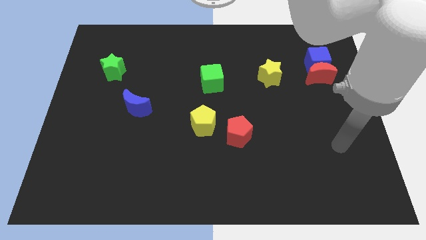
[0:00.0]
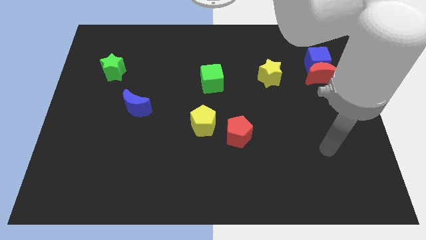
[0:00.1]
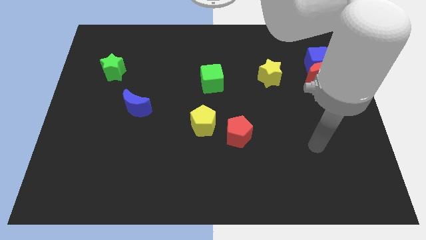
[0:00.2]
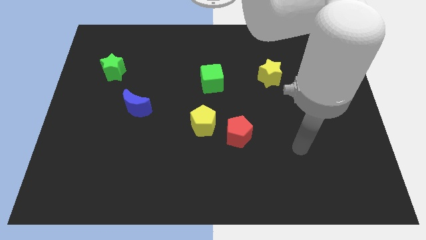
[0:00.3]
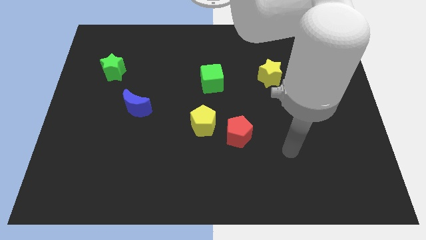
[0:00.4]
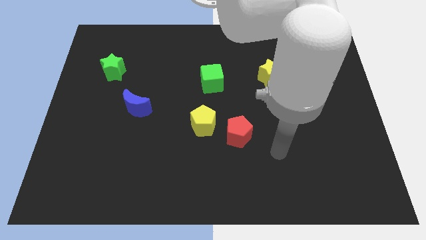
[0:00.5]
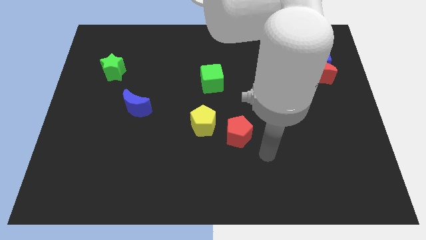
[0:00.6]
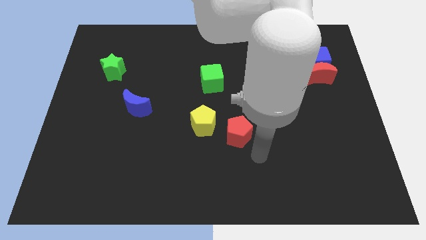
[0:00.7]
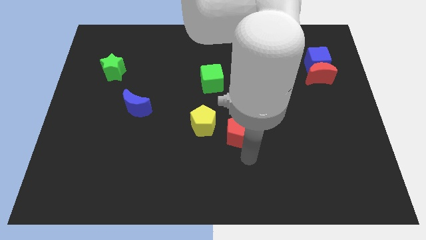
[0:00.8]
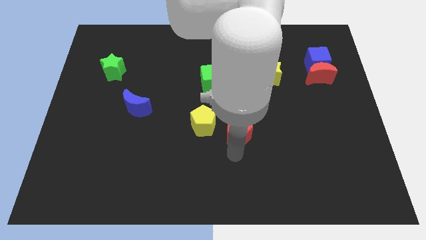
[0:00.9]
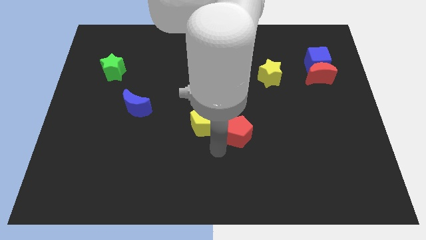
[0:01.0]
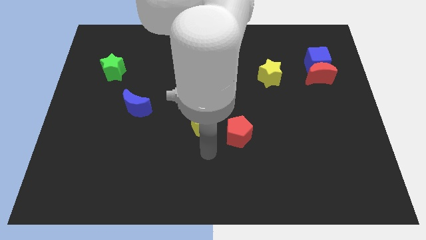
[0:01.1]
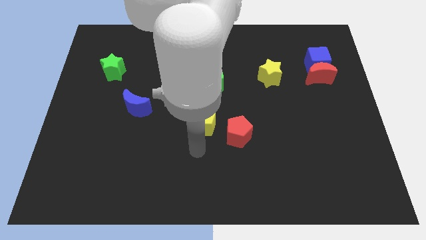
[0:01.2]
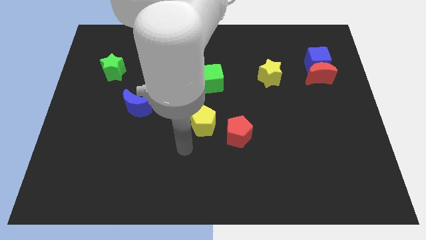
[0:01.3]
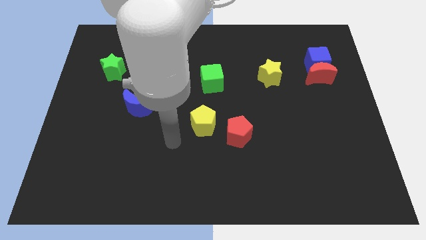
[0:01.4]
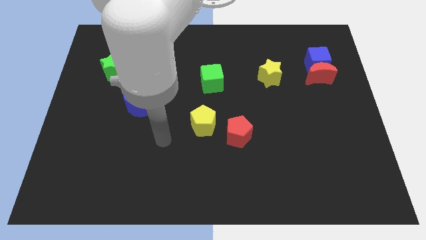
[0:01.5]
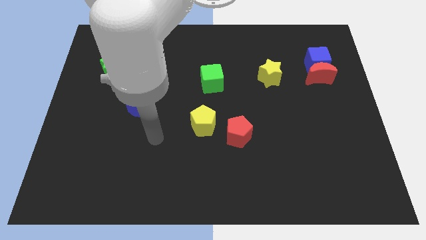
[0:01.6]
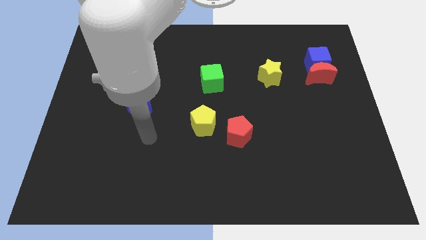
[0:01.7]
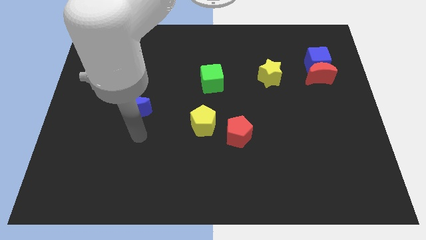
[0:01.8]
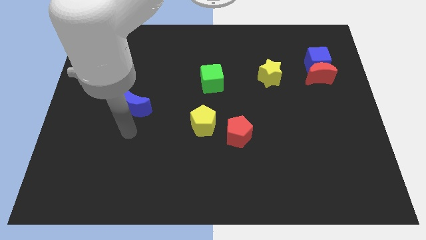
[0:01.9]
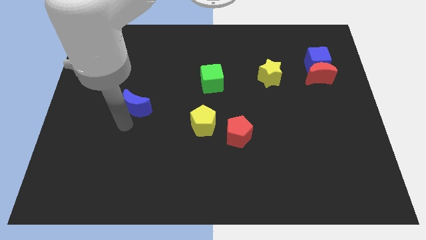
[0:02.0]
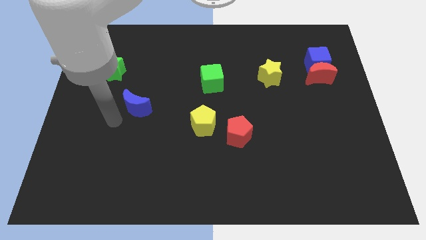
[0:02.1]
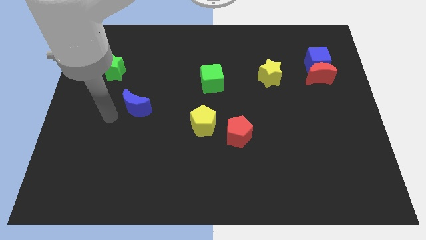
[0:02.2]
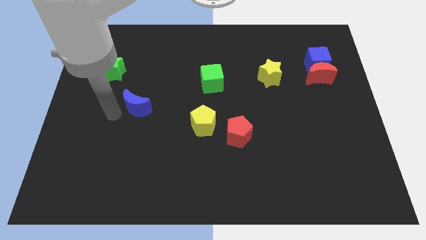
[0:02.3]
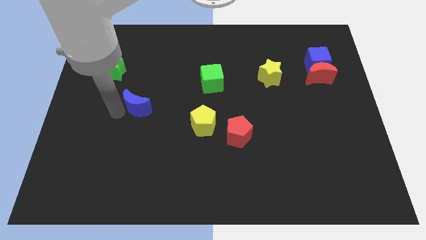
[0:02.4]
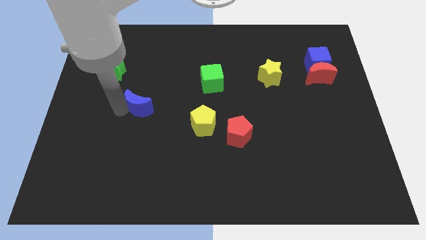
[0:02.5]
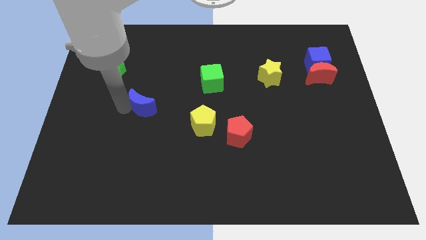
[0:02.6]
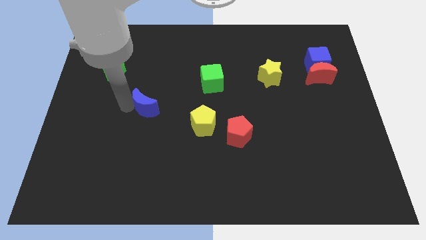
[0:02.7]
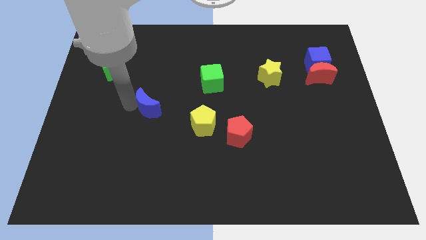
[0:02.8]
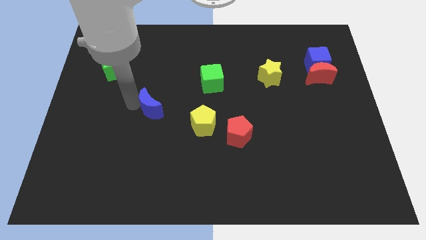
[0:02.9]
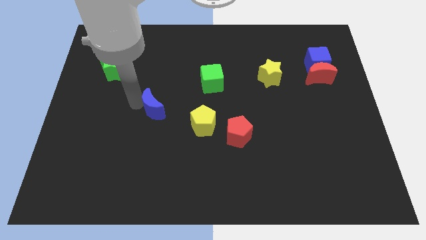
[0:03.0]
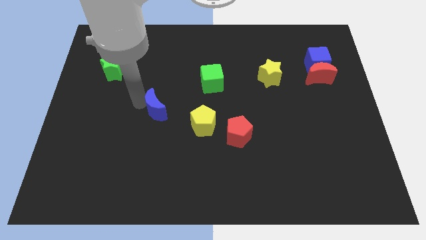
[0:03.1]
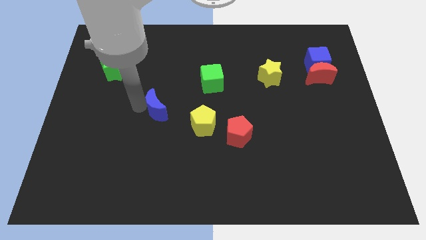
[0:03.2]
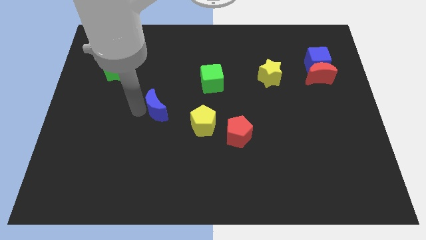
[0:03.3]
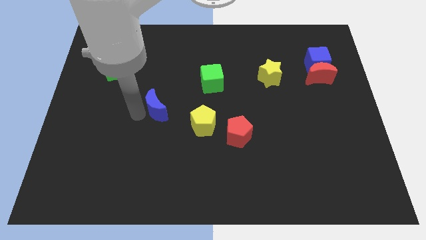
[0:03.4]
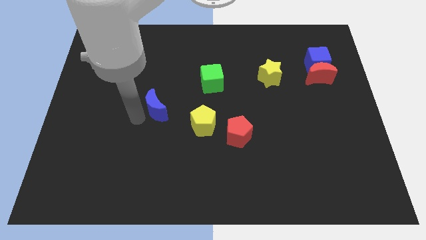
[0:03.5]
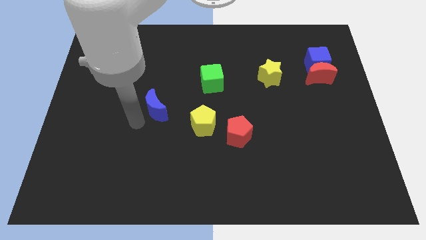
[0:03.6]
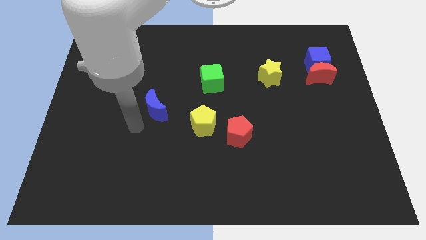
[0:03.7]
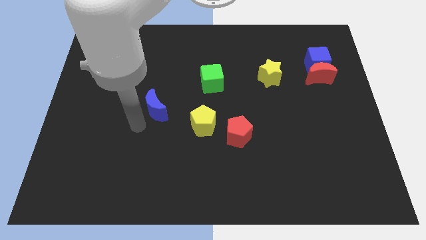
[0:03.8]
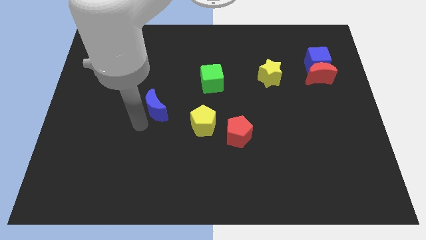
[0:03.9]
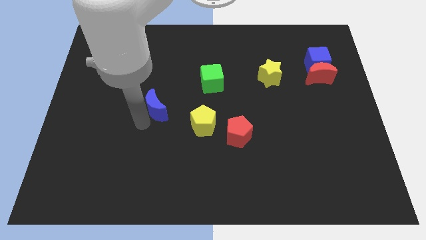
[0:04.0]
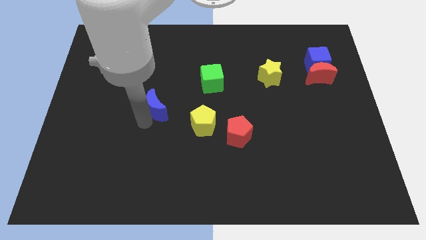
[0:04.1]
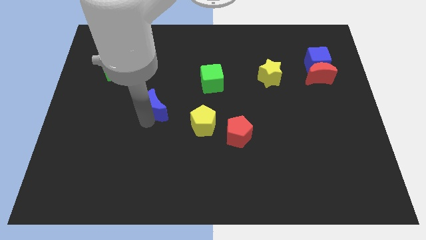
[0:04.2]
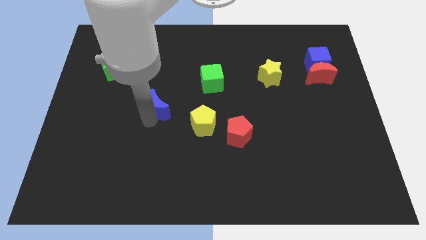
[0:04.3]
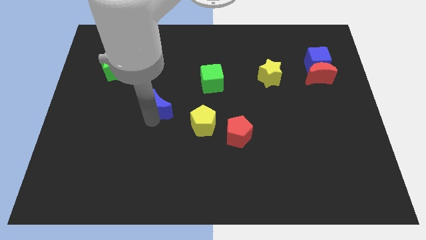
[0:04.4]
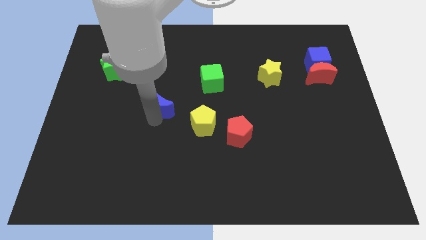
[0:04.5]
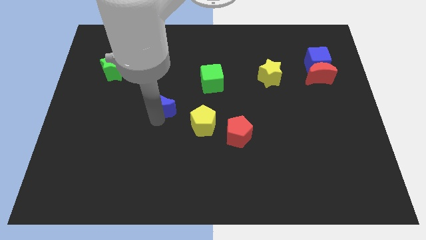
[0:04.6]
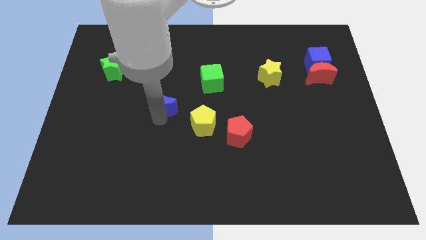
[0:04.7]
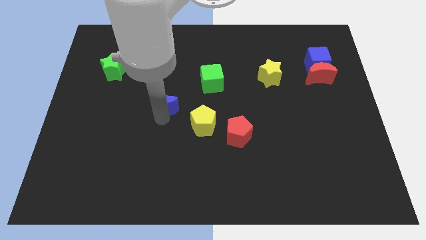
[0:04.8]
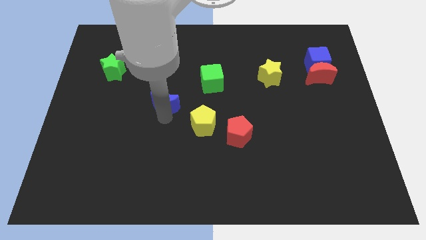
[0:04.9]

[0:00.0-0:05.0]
slightly push the blue moon right

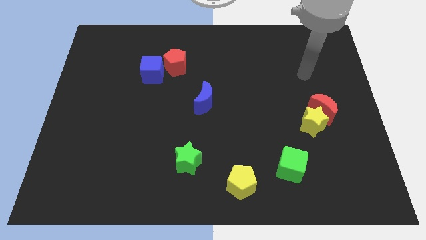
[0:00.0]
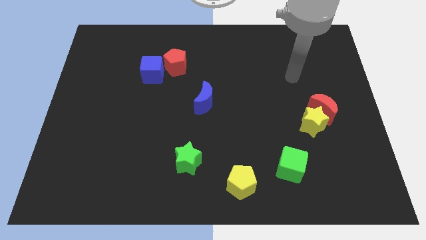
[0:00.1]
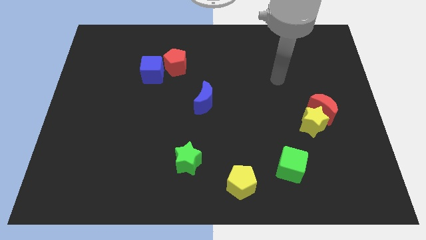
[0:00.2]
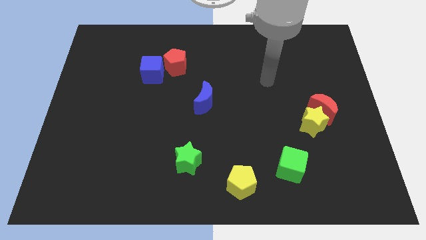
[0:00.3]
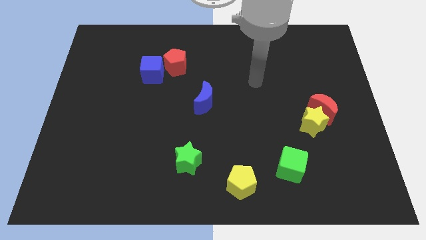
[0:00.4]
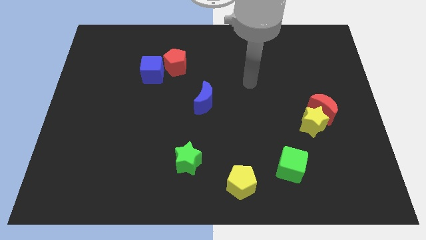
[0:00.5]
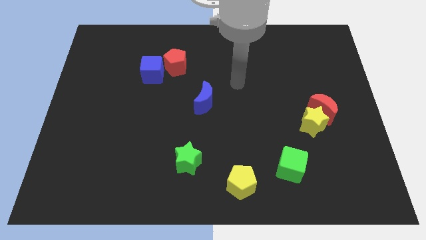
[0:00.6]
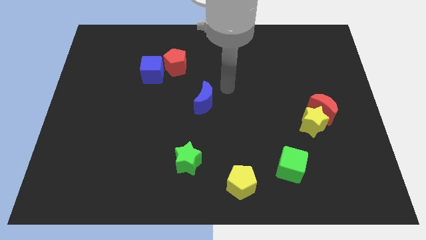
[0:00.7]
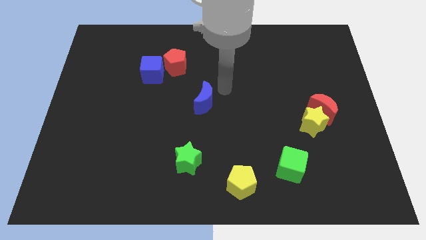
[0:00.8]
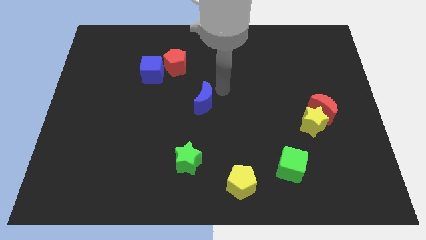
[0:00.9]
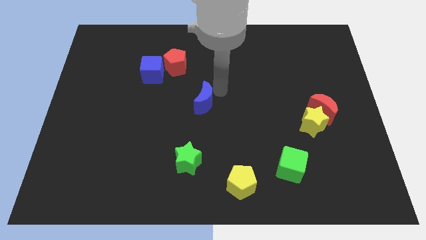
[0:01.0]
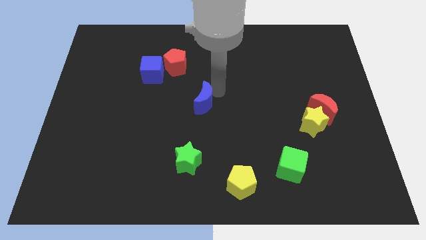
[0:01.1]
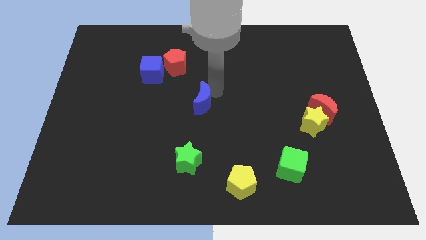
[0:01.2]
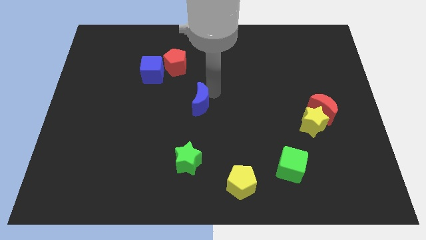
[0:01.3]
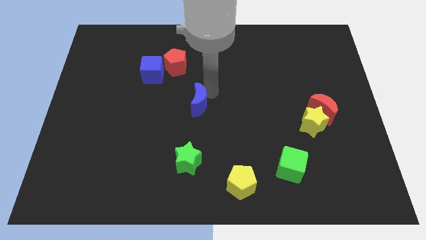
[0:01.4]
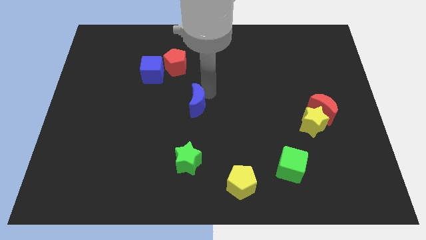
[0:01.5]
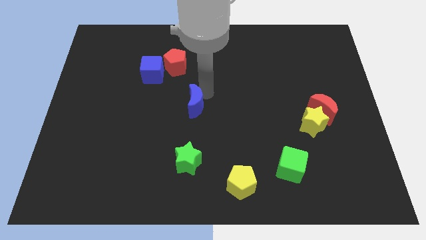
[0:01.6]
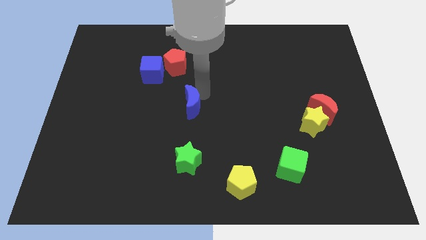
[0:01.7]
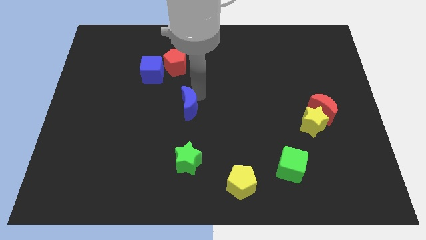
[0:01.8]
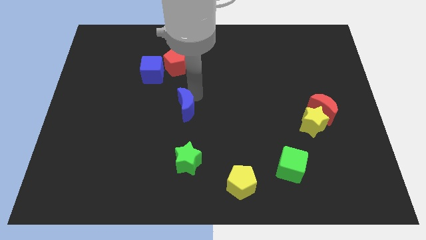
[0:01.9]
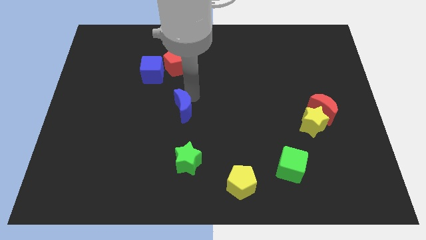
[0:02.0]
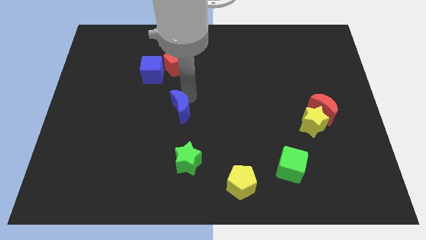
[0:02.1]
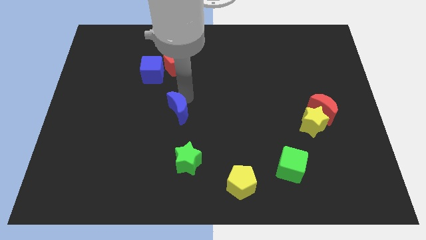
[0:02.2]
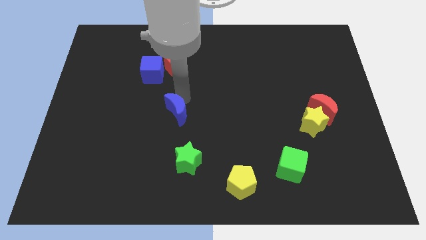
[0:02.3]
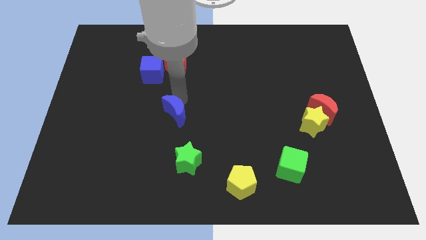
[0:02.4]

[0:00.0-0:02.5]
push the blue moon a little bit down and left diagonally

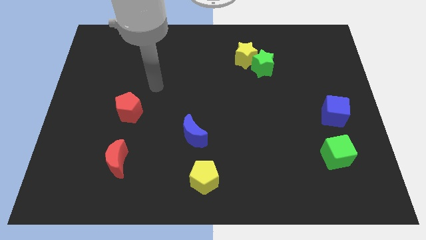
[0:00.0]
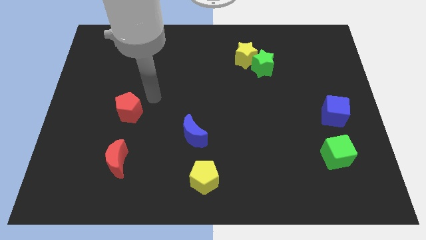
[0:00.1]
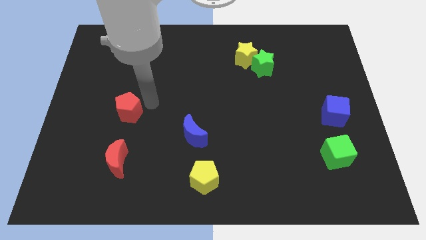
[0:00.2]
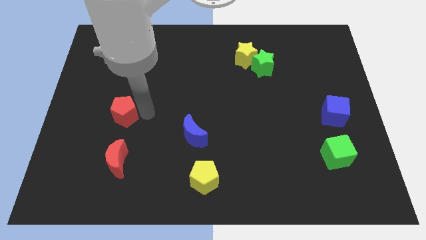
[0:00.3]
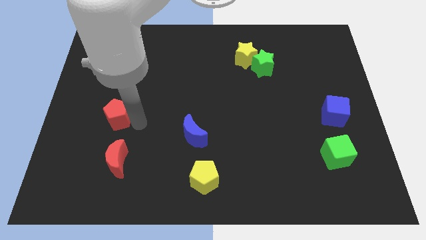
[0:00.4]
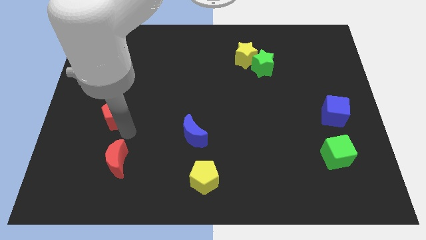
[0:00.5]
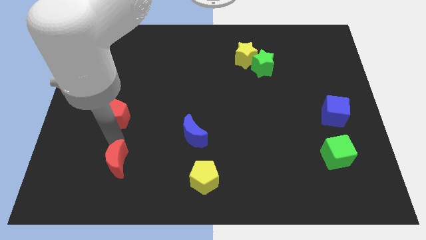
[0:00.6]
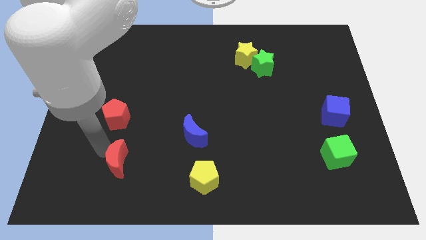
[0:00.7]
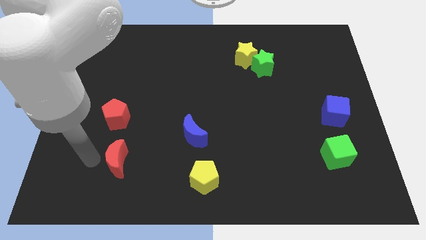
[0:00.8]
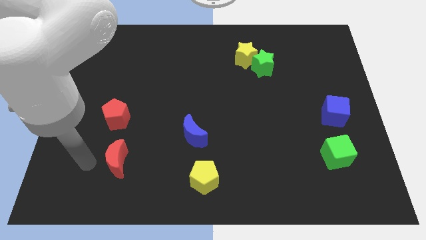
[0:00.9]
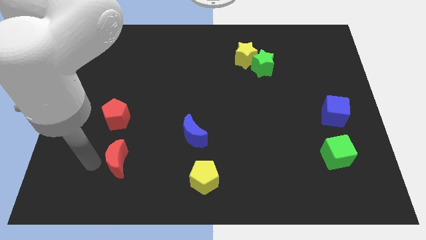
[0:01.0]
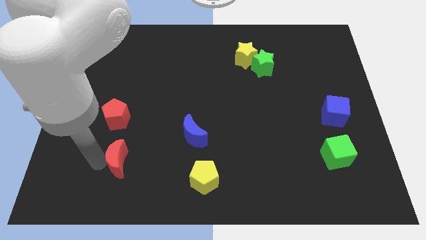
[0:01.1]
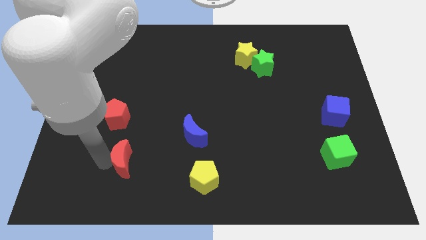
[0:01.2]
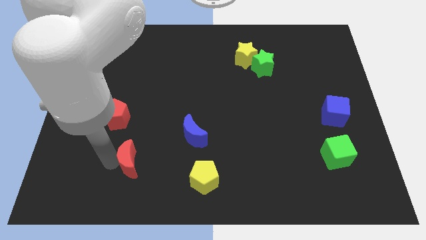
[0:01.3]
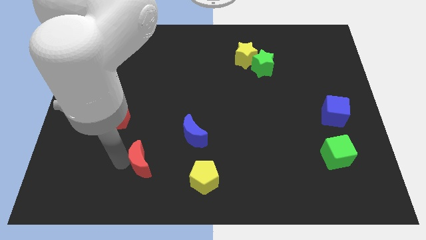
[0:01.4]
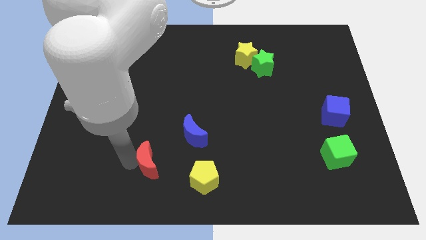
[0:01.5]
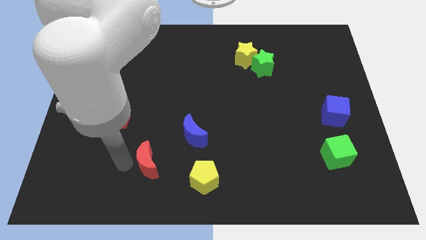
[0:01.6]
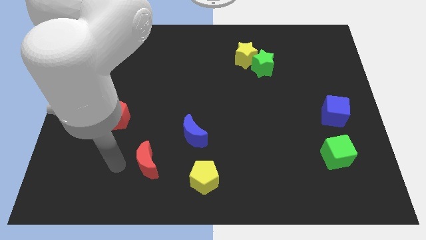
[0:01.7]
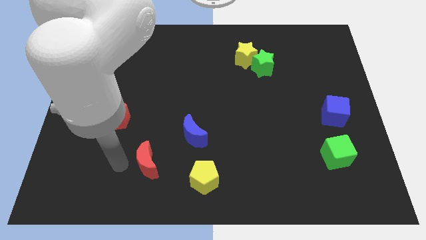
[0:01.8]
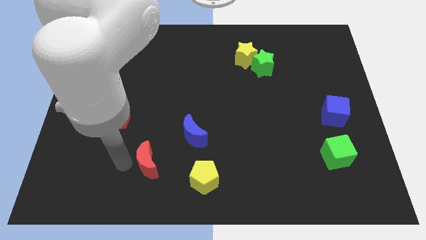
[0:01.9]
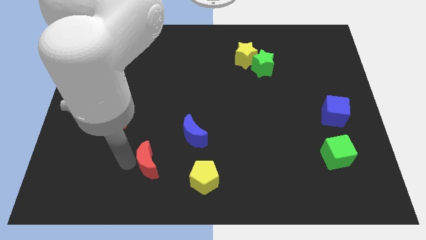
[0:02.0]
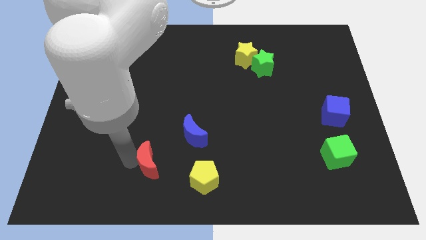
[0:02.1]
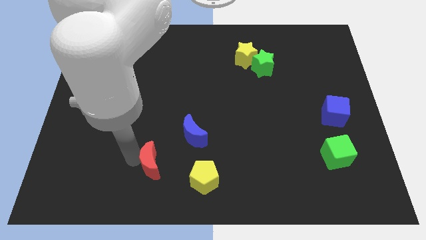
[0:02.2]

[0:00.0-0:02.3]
move the red moon slightly to the right
